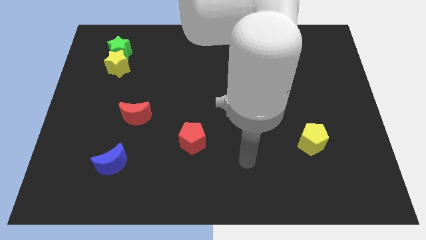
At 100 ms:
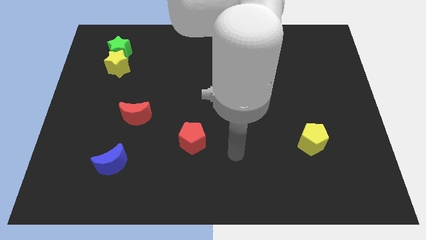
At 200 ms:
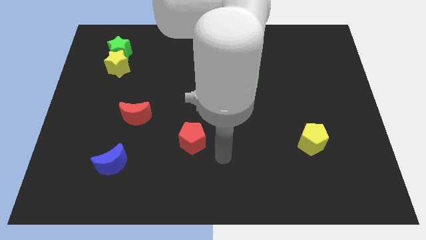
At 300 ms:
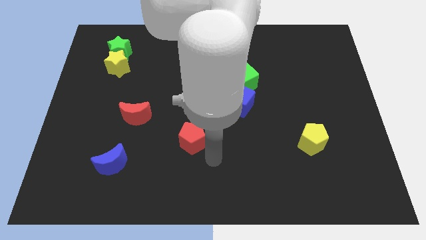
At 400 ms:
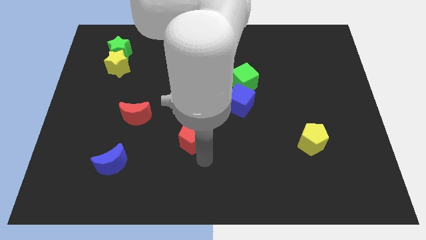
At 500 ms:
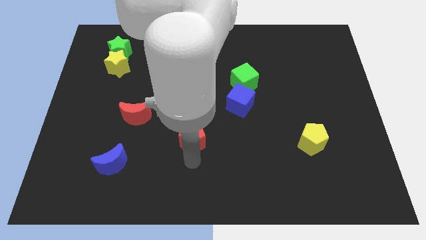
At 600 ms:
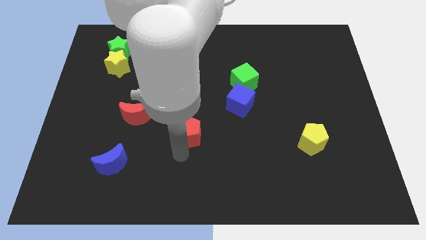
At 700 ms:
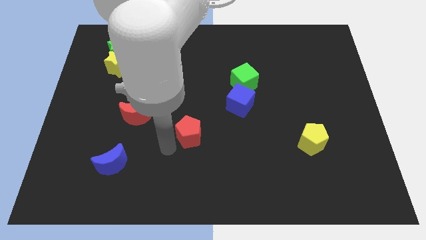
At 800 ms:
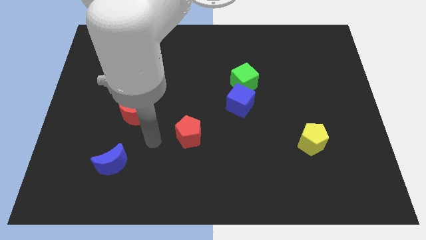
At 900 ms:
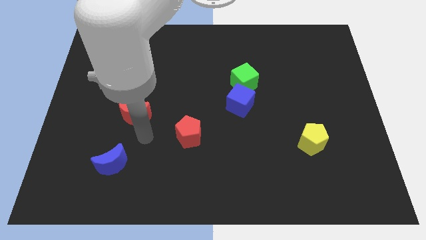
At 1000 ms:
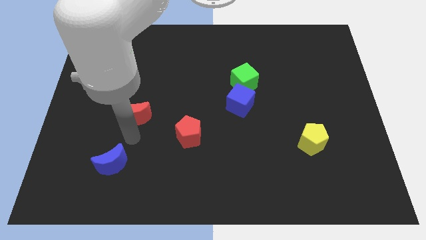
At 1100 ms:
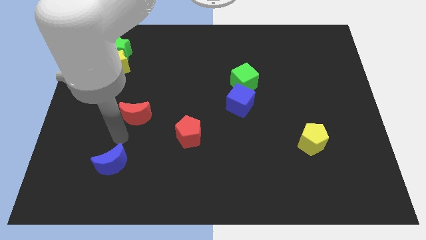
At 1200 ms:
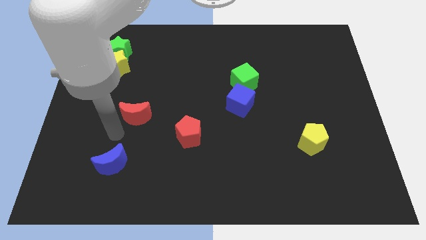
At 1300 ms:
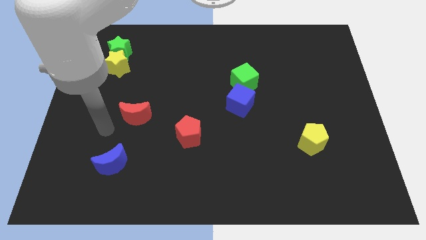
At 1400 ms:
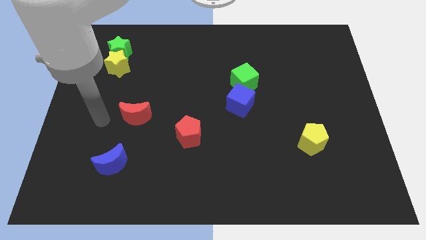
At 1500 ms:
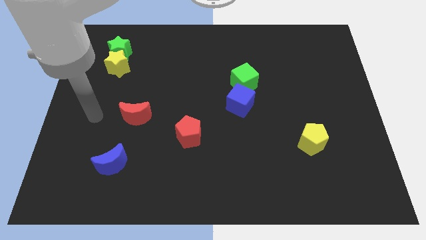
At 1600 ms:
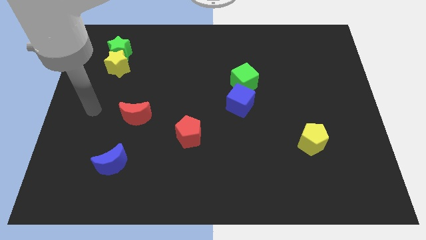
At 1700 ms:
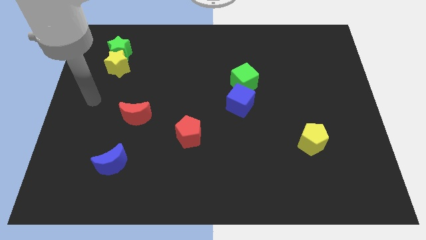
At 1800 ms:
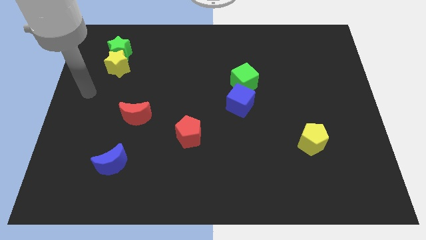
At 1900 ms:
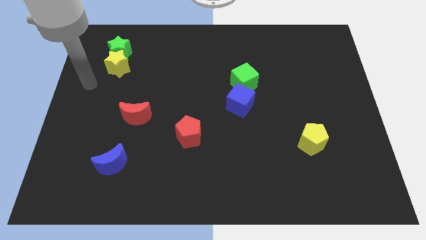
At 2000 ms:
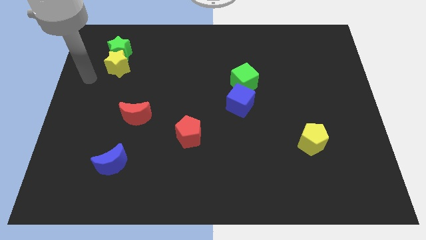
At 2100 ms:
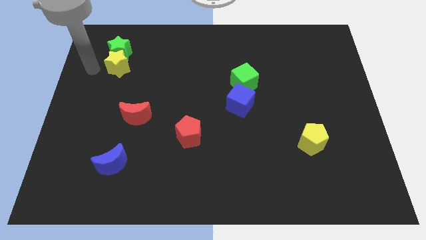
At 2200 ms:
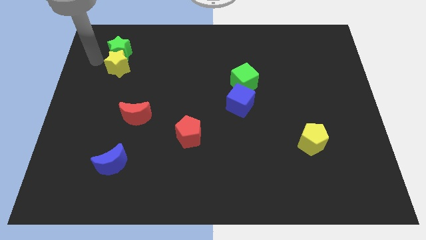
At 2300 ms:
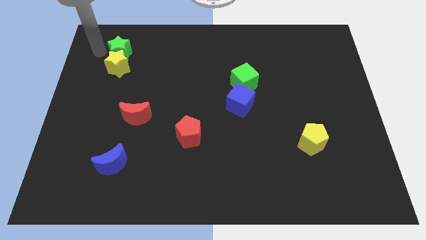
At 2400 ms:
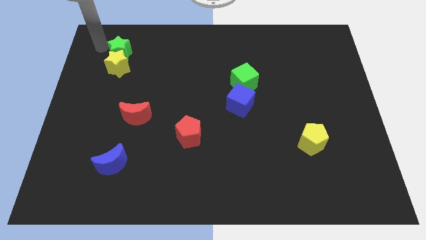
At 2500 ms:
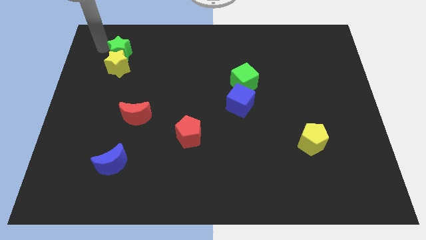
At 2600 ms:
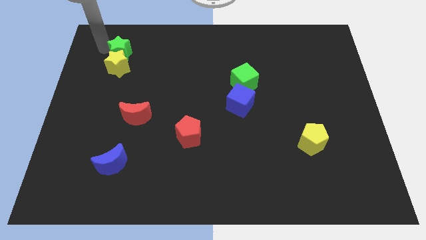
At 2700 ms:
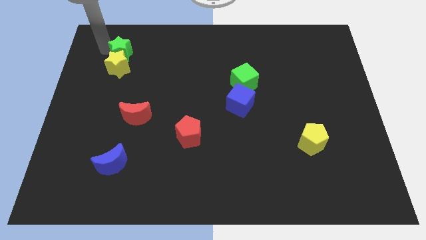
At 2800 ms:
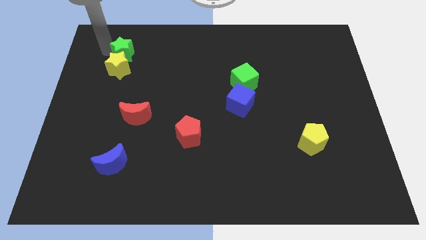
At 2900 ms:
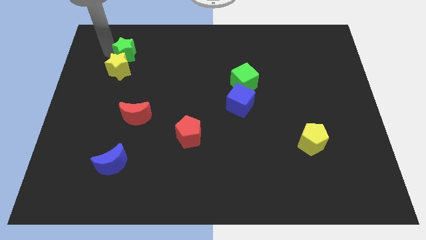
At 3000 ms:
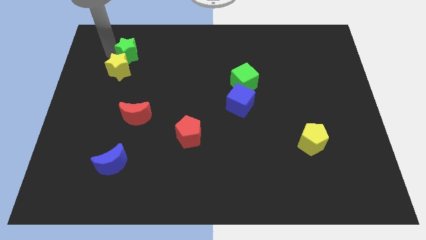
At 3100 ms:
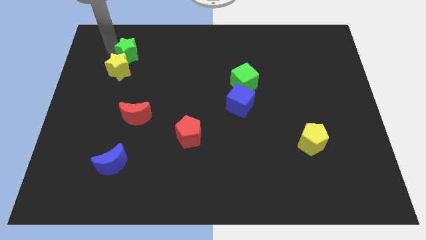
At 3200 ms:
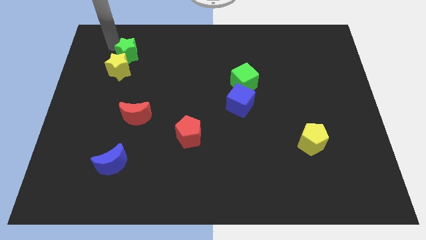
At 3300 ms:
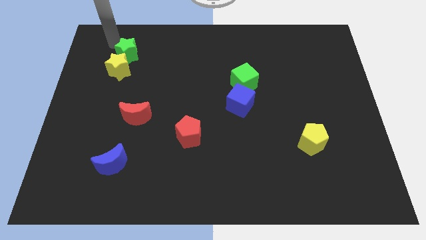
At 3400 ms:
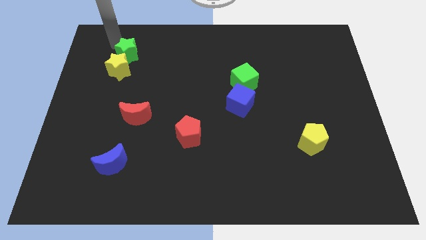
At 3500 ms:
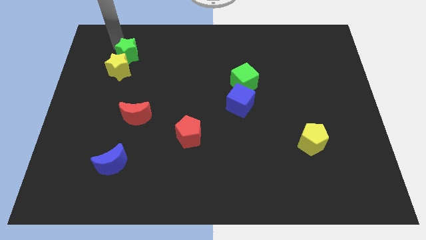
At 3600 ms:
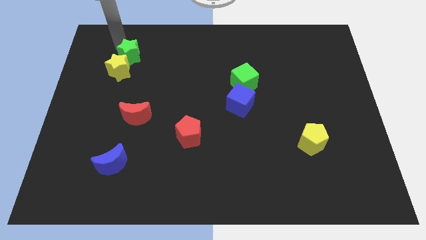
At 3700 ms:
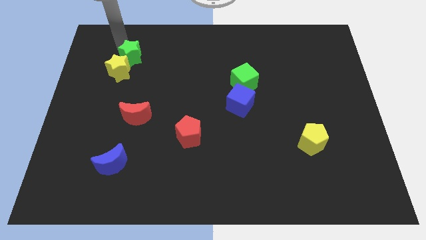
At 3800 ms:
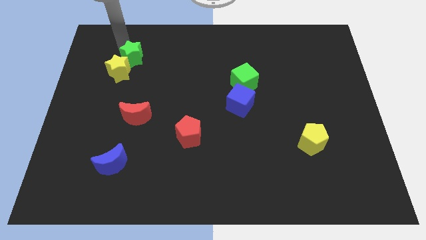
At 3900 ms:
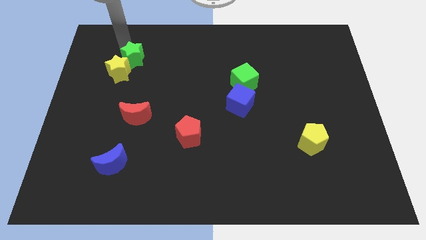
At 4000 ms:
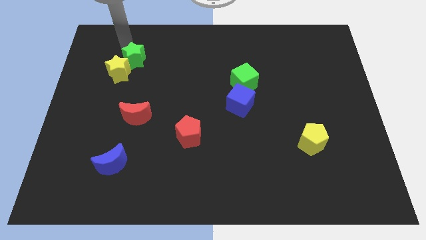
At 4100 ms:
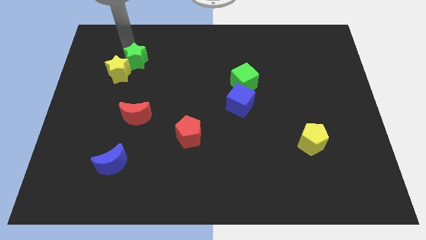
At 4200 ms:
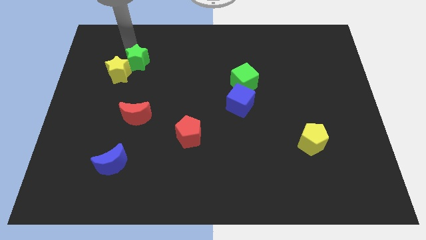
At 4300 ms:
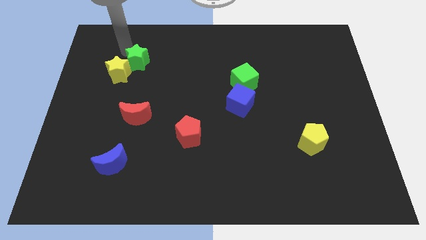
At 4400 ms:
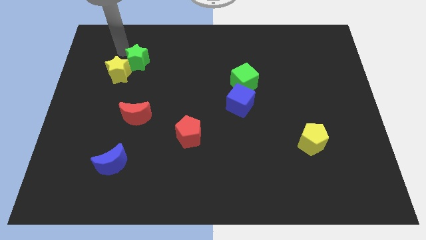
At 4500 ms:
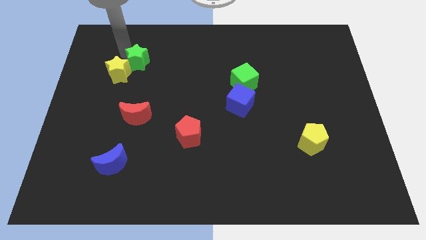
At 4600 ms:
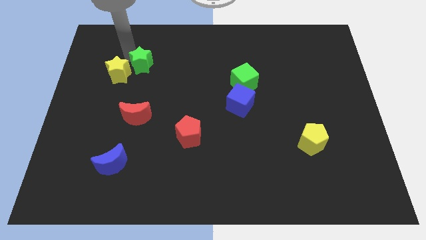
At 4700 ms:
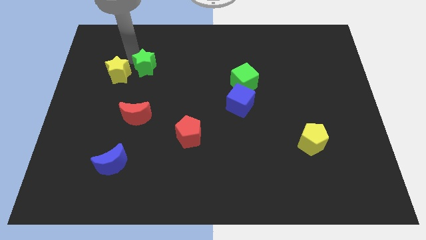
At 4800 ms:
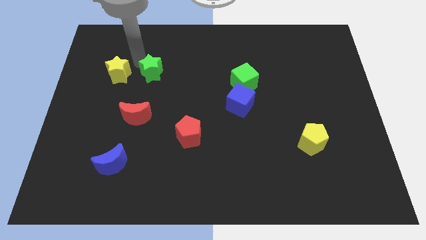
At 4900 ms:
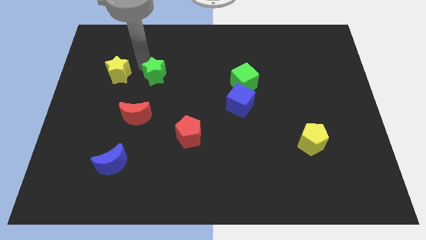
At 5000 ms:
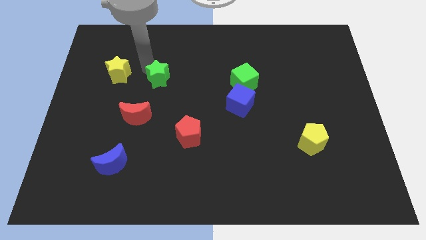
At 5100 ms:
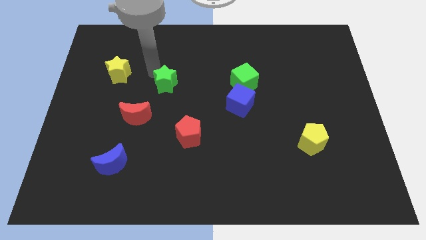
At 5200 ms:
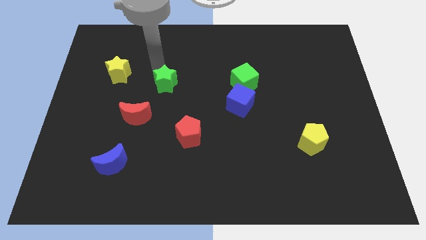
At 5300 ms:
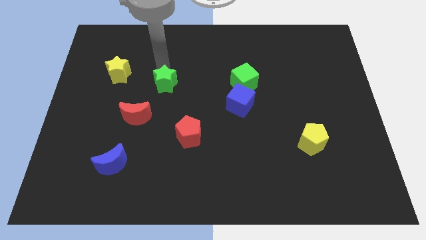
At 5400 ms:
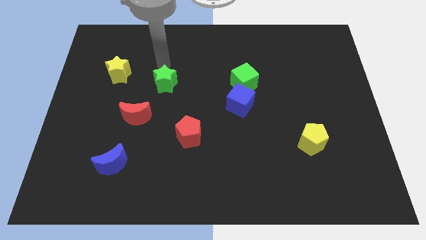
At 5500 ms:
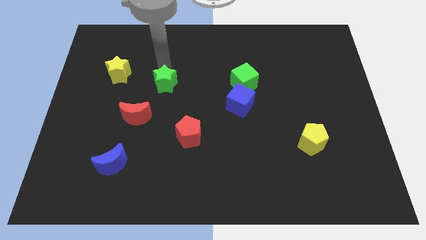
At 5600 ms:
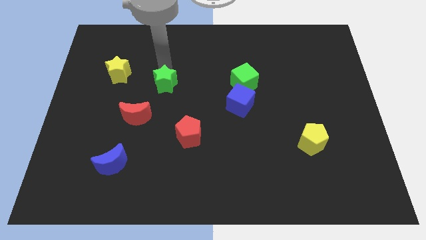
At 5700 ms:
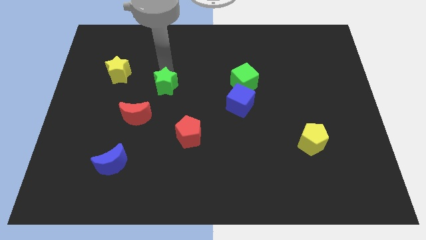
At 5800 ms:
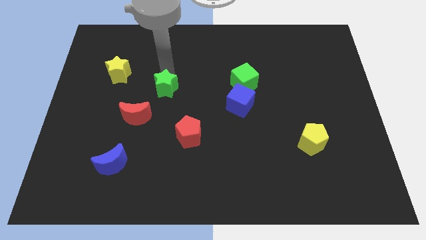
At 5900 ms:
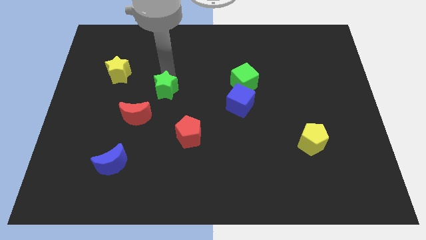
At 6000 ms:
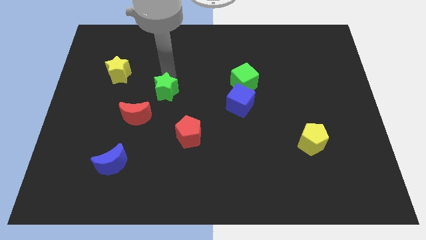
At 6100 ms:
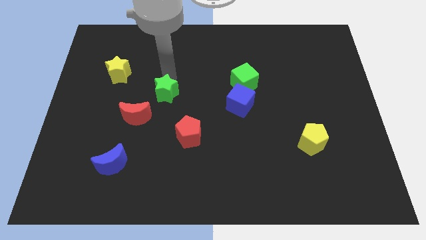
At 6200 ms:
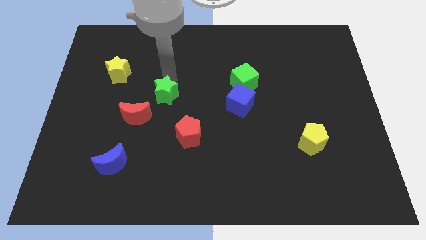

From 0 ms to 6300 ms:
move the green star downwards and to the right diagonally

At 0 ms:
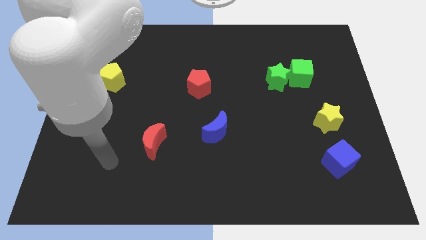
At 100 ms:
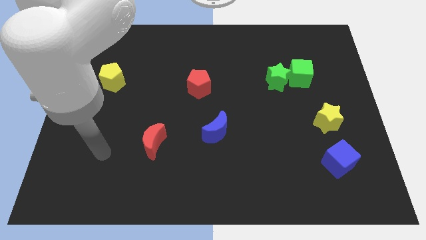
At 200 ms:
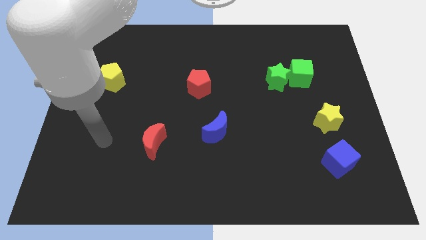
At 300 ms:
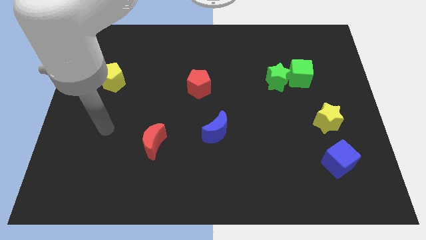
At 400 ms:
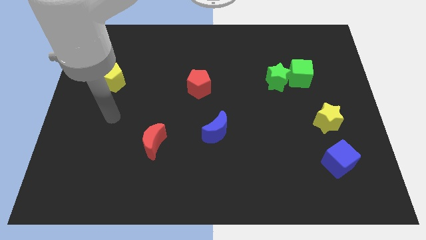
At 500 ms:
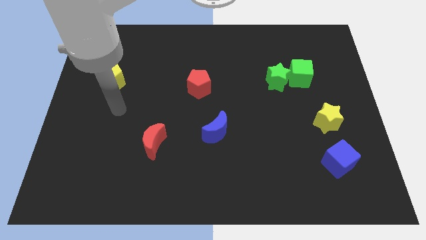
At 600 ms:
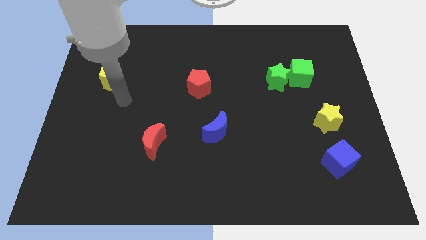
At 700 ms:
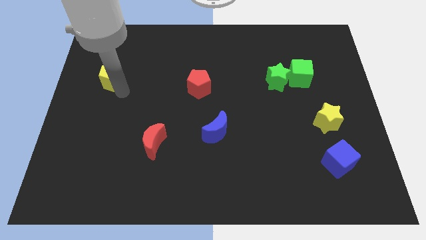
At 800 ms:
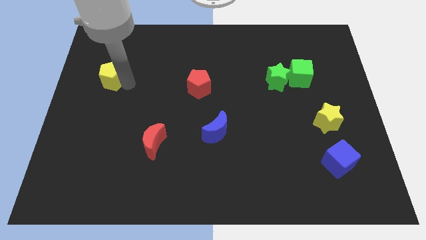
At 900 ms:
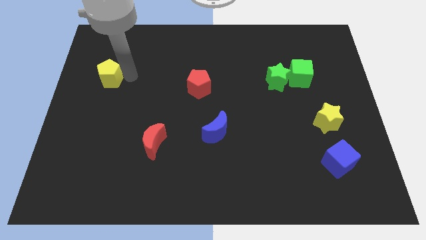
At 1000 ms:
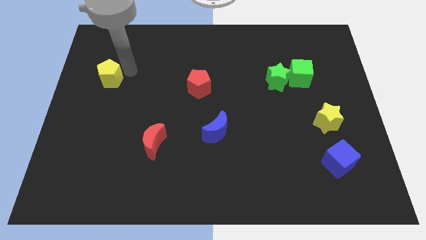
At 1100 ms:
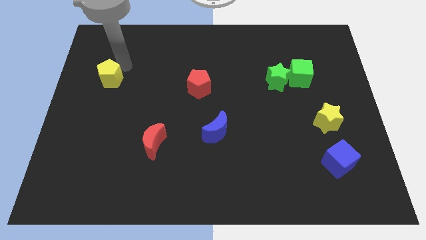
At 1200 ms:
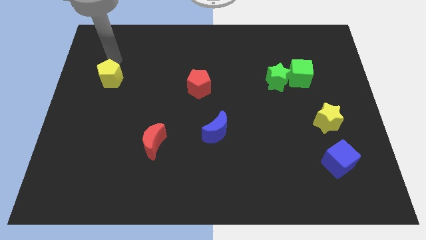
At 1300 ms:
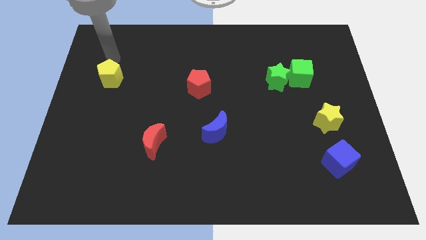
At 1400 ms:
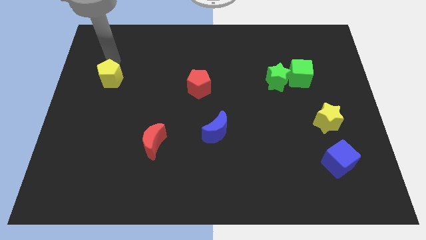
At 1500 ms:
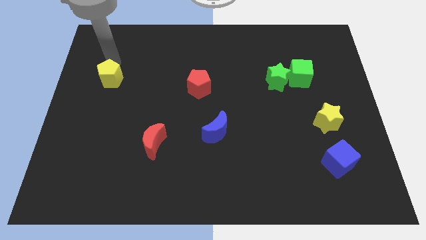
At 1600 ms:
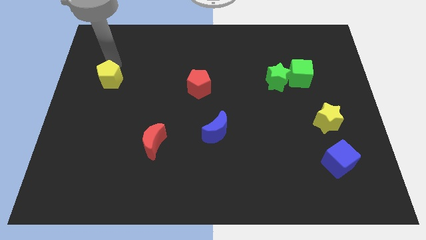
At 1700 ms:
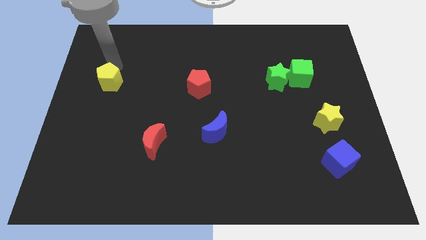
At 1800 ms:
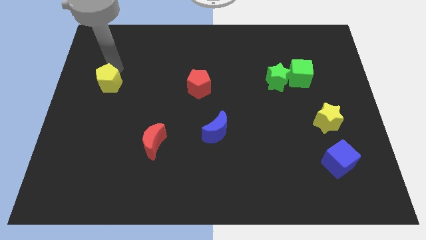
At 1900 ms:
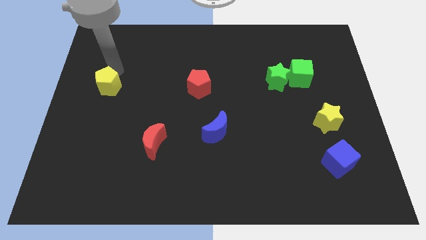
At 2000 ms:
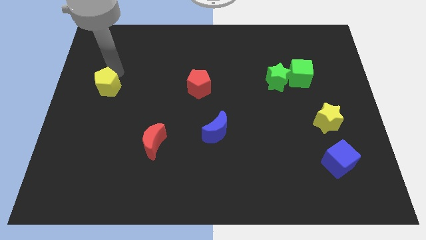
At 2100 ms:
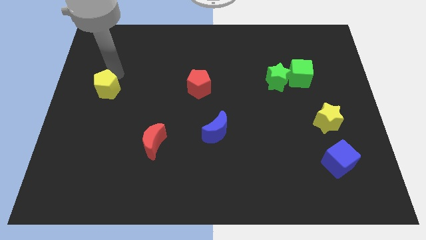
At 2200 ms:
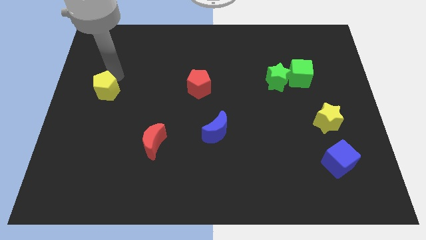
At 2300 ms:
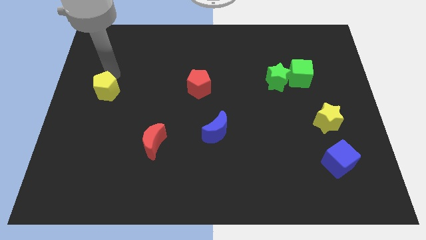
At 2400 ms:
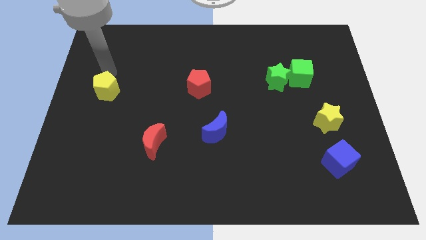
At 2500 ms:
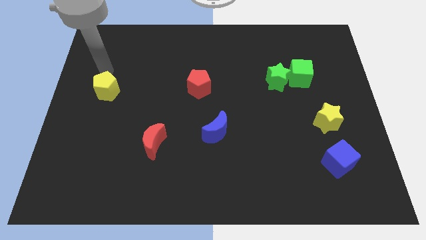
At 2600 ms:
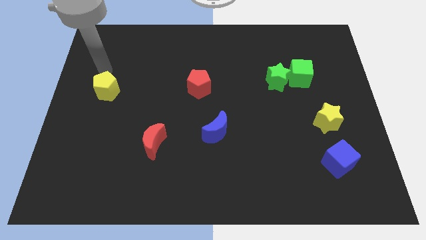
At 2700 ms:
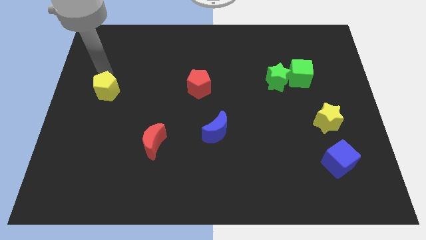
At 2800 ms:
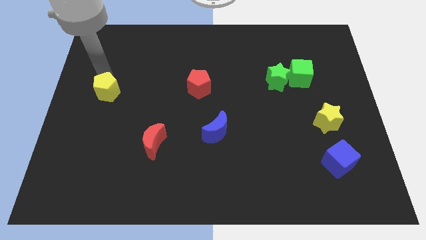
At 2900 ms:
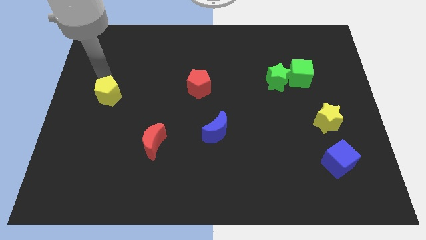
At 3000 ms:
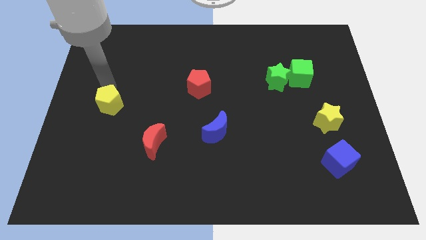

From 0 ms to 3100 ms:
slightly slide the yellow pentagon downwards
